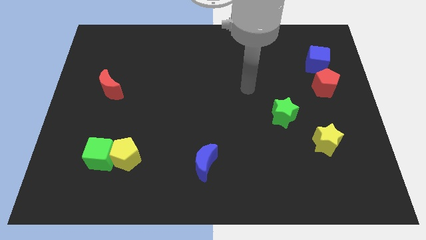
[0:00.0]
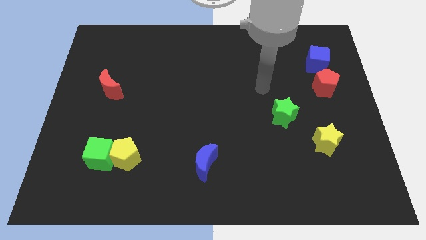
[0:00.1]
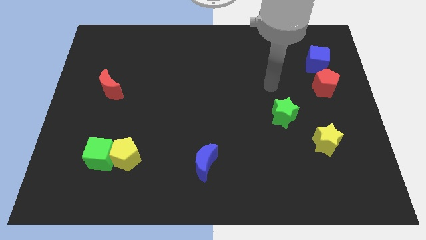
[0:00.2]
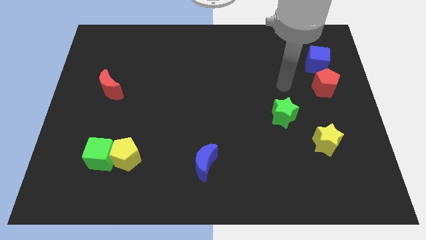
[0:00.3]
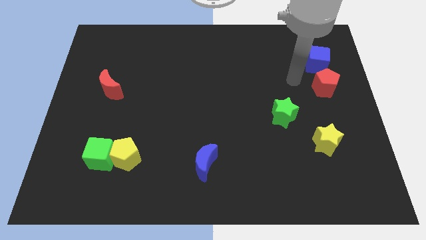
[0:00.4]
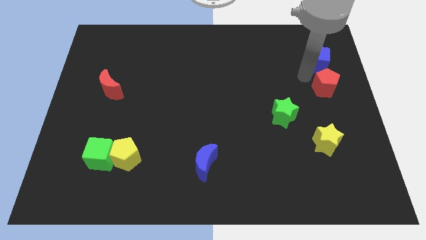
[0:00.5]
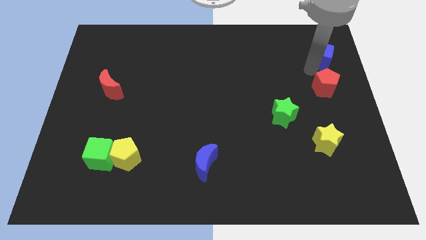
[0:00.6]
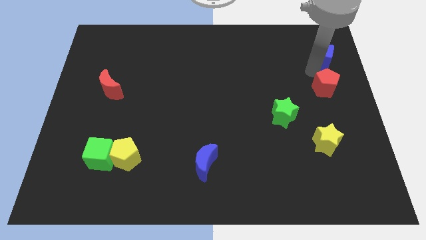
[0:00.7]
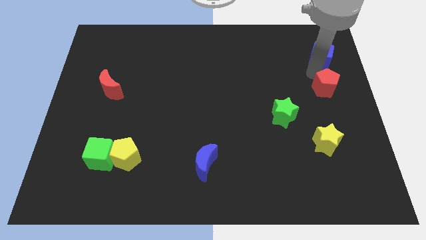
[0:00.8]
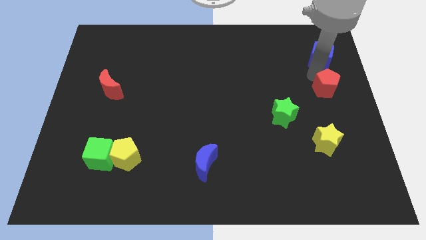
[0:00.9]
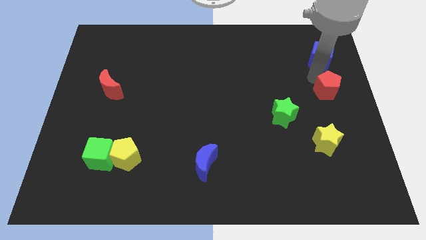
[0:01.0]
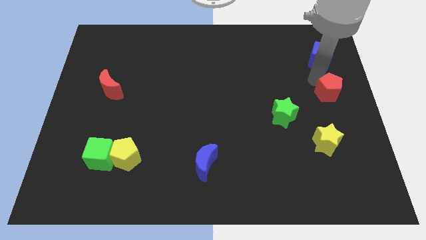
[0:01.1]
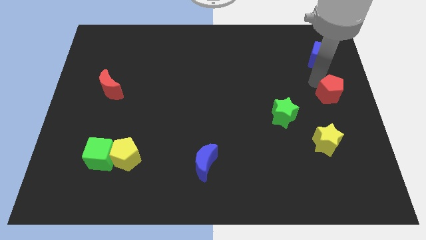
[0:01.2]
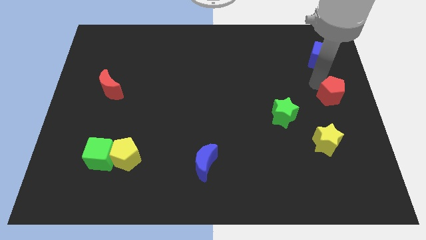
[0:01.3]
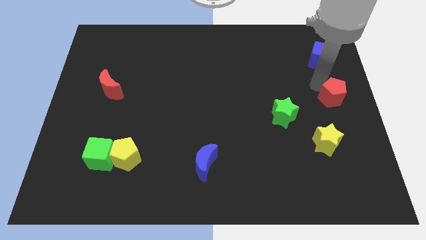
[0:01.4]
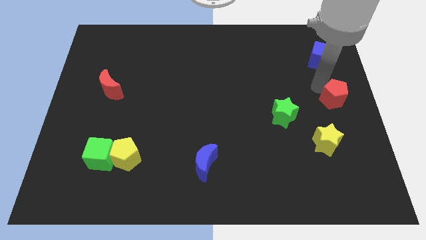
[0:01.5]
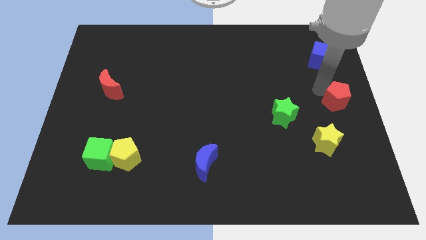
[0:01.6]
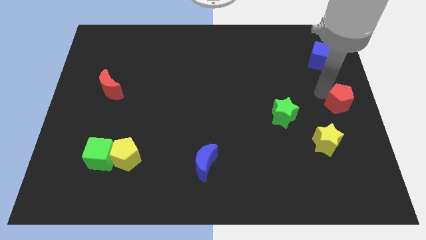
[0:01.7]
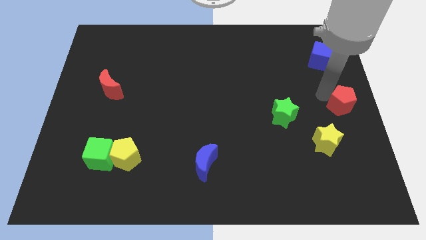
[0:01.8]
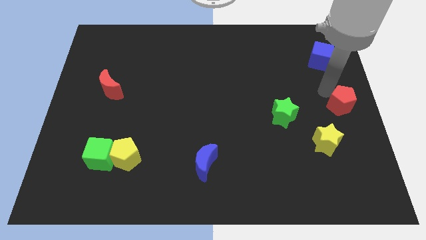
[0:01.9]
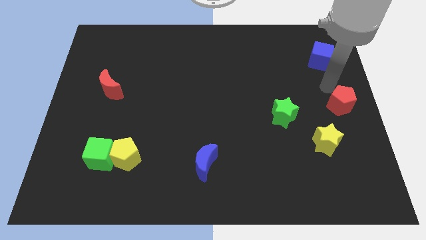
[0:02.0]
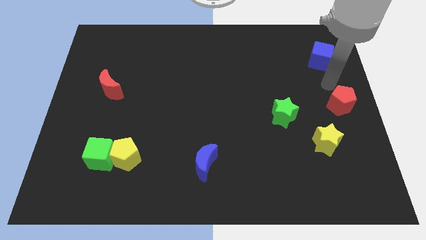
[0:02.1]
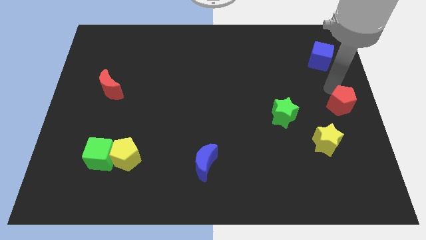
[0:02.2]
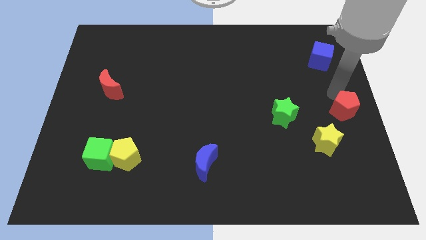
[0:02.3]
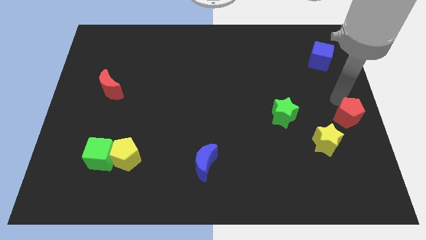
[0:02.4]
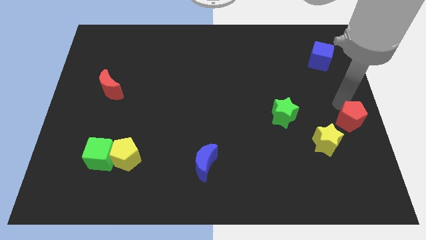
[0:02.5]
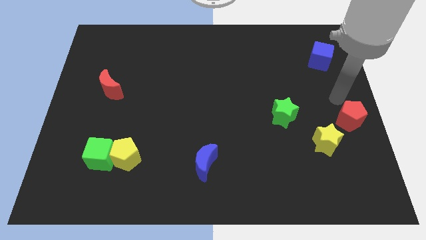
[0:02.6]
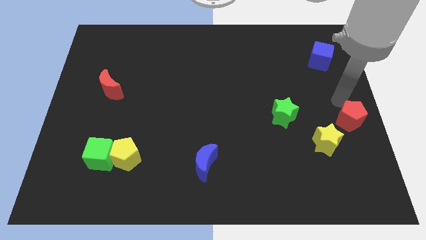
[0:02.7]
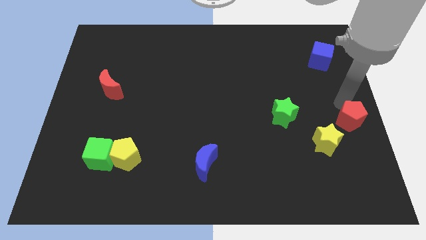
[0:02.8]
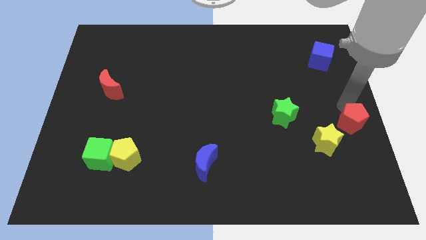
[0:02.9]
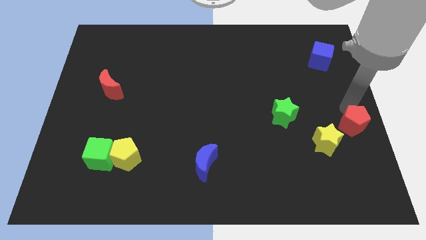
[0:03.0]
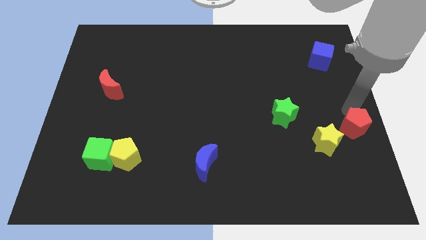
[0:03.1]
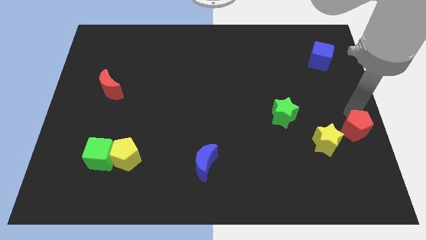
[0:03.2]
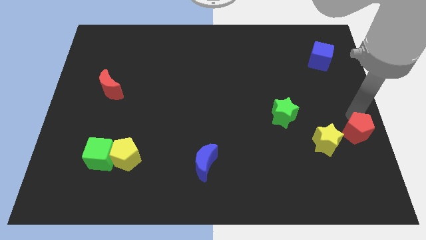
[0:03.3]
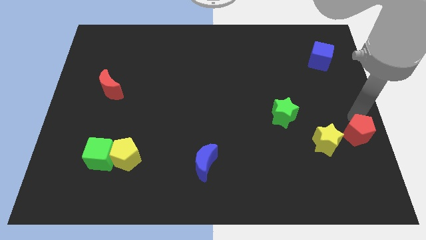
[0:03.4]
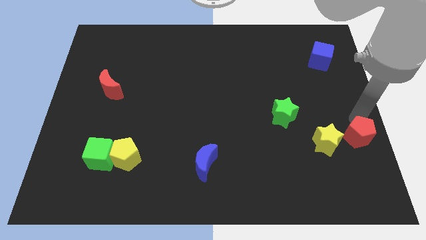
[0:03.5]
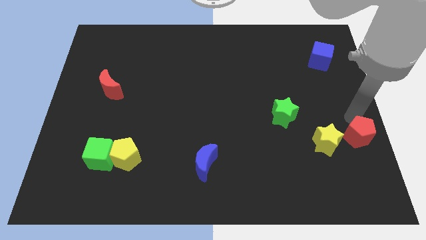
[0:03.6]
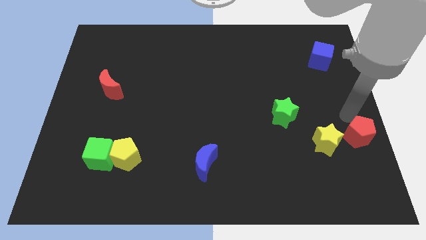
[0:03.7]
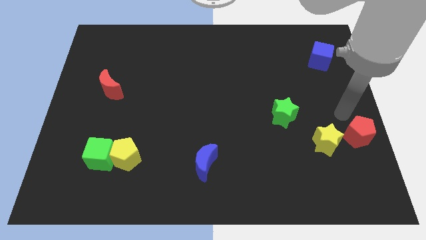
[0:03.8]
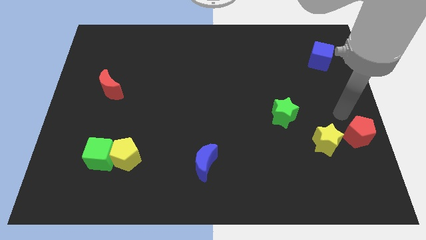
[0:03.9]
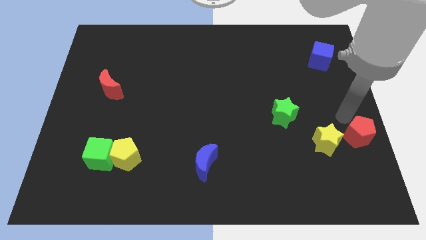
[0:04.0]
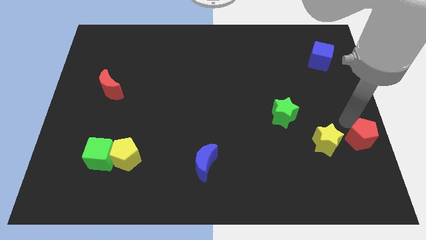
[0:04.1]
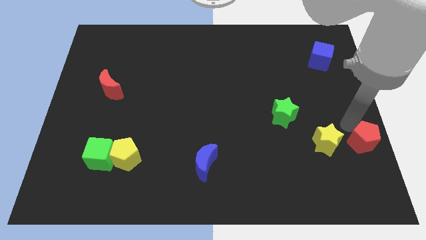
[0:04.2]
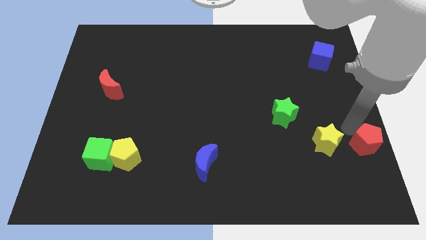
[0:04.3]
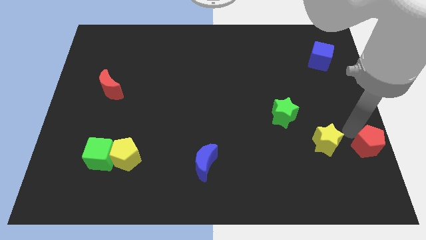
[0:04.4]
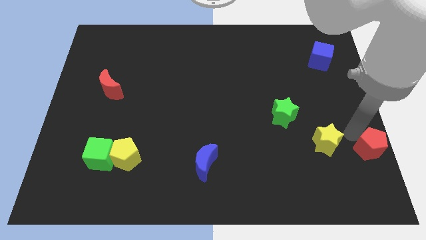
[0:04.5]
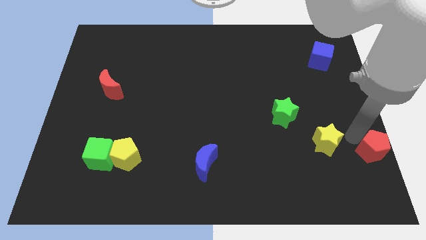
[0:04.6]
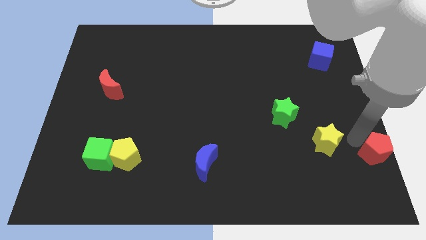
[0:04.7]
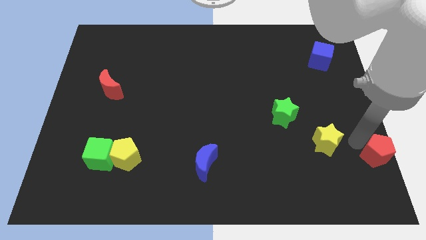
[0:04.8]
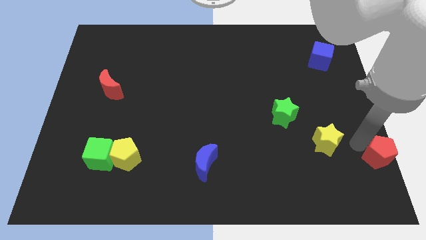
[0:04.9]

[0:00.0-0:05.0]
put the red pentagon to the bottom right of the board

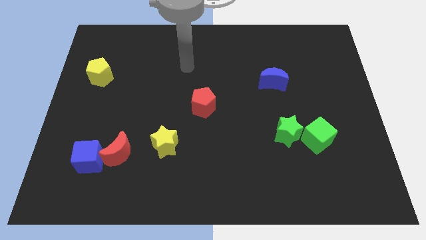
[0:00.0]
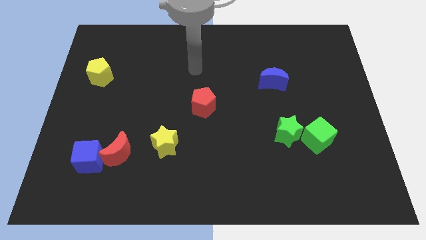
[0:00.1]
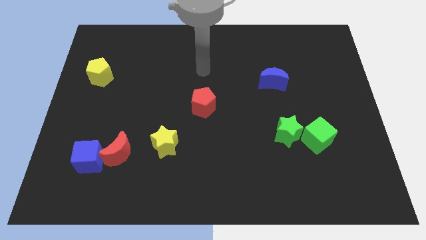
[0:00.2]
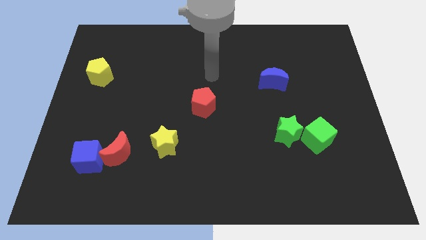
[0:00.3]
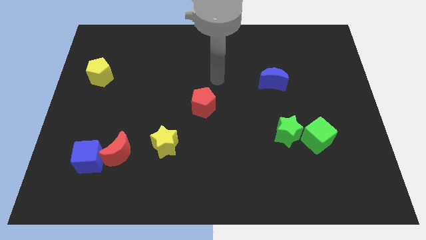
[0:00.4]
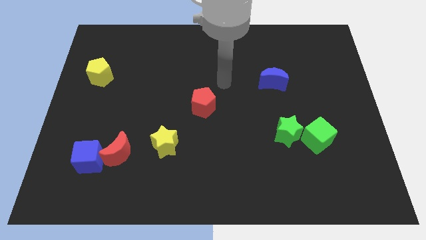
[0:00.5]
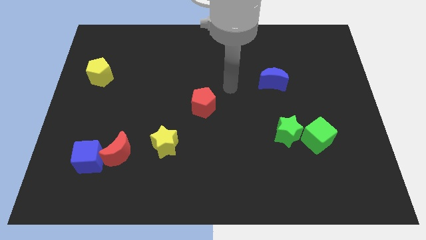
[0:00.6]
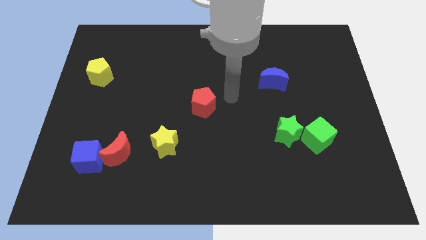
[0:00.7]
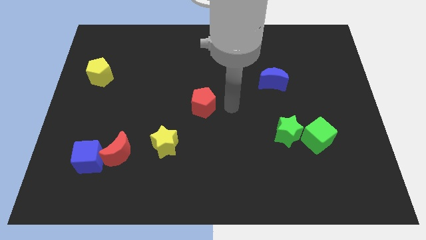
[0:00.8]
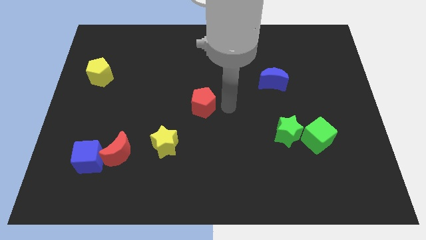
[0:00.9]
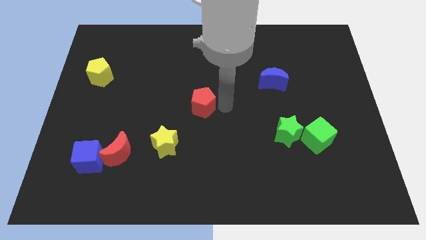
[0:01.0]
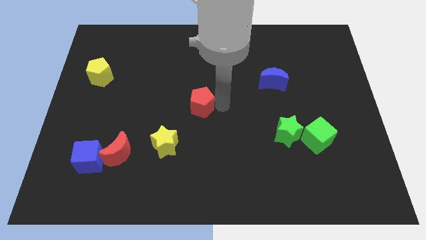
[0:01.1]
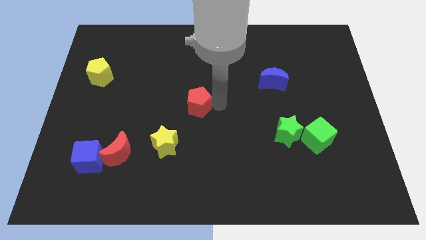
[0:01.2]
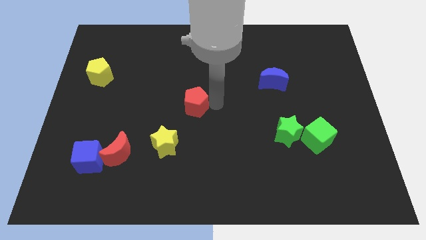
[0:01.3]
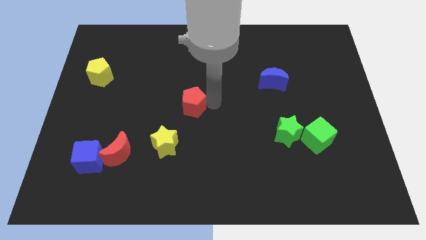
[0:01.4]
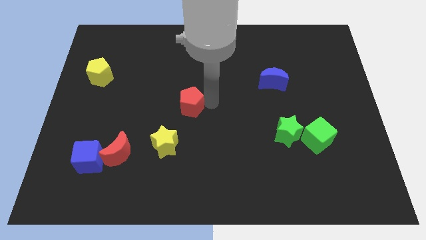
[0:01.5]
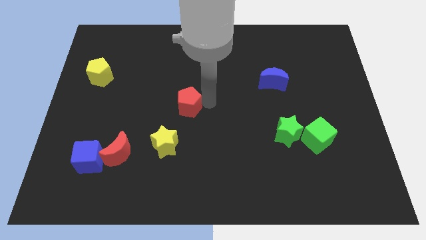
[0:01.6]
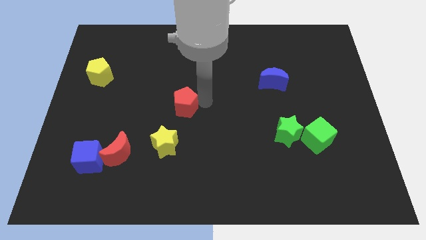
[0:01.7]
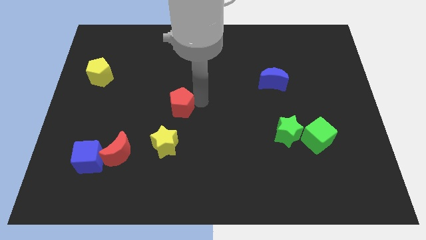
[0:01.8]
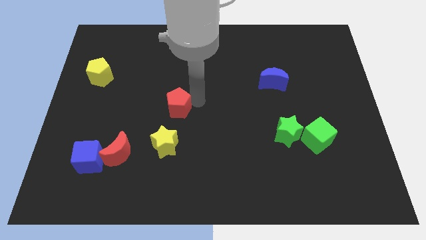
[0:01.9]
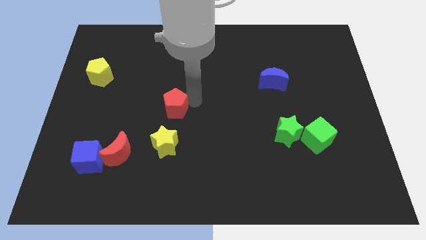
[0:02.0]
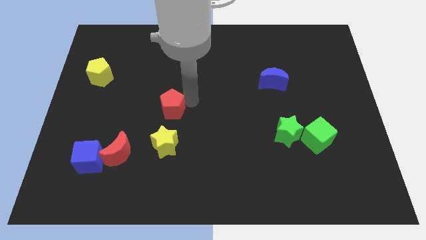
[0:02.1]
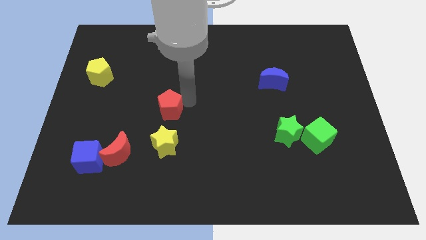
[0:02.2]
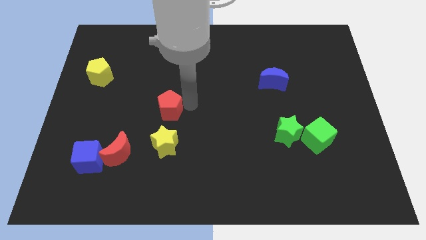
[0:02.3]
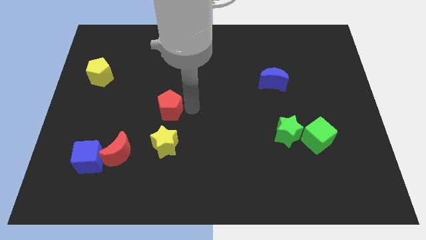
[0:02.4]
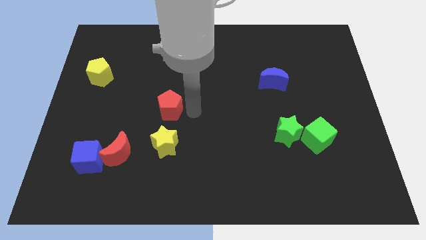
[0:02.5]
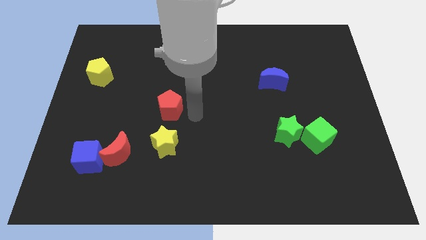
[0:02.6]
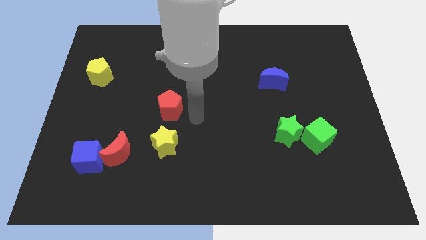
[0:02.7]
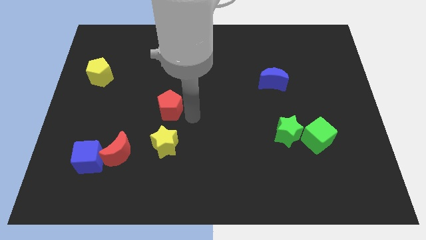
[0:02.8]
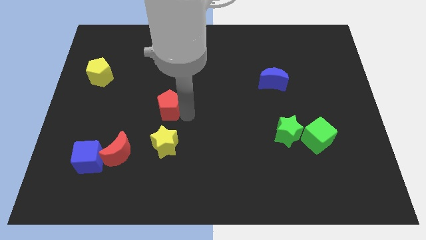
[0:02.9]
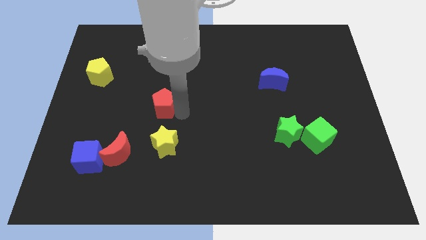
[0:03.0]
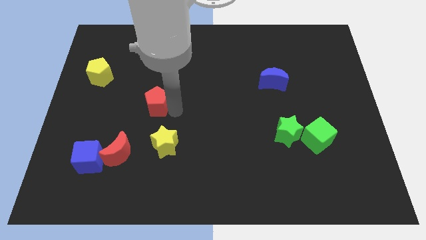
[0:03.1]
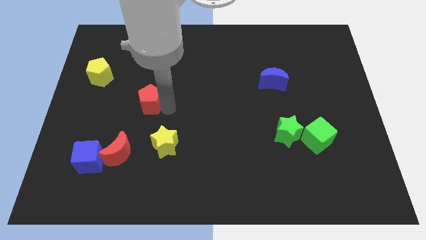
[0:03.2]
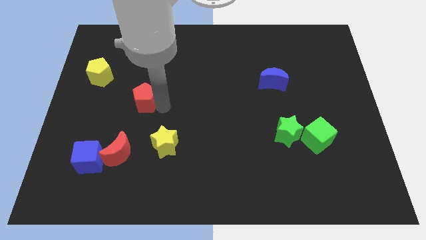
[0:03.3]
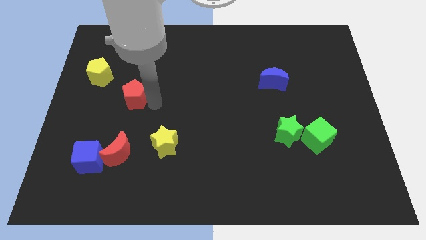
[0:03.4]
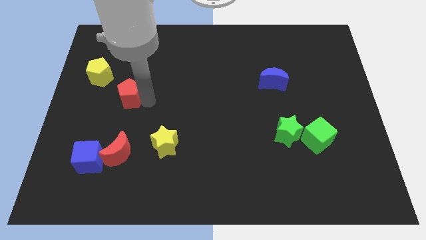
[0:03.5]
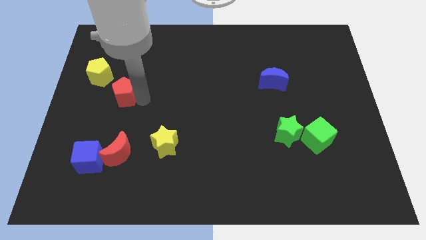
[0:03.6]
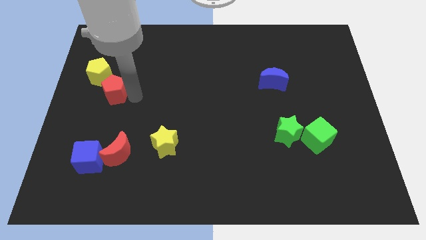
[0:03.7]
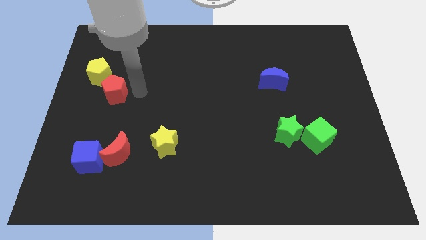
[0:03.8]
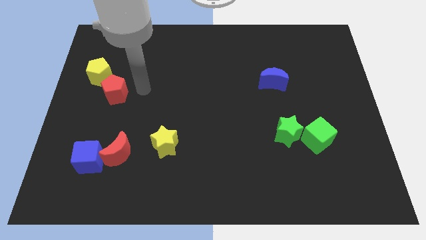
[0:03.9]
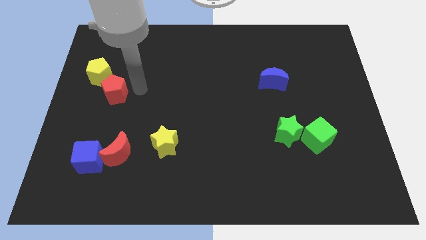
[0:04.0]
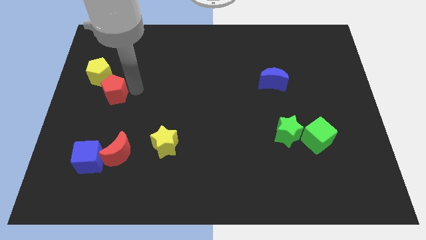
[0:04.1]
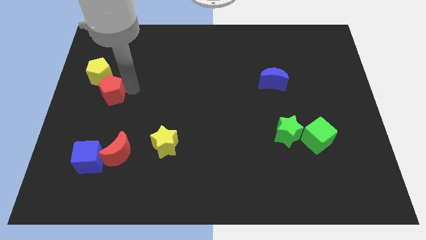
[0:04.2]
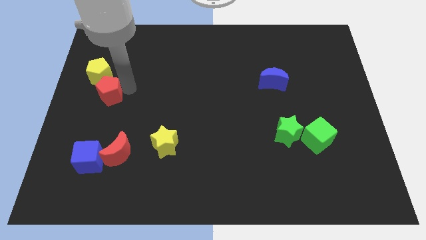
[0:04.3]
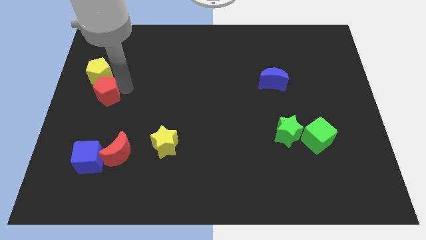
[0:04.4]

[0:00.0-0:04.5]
move the red pentagon to the left side of the board
